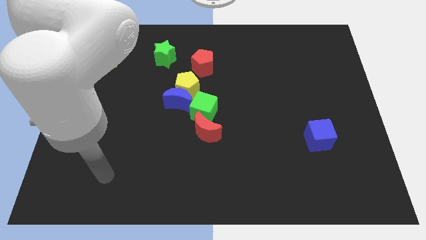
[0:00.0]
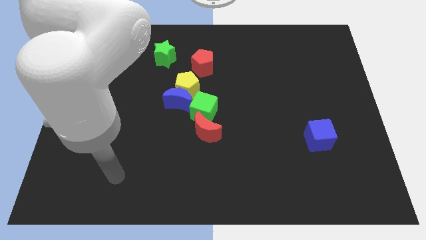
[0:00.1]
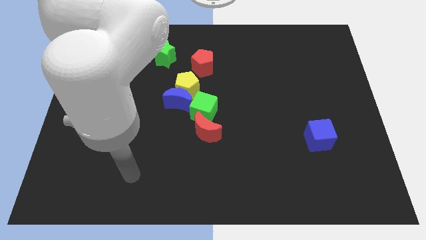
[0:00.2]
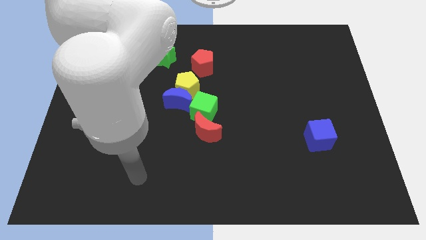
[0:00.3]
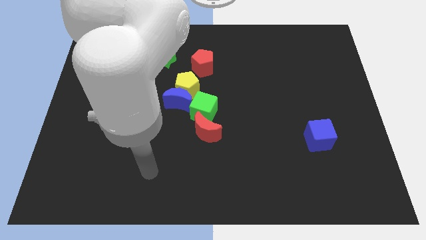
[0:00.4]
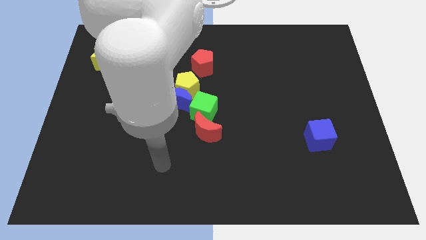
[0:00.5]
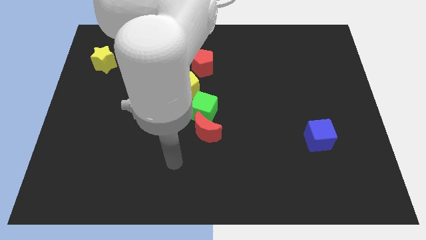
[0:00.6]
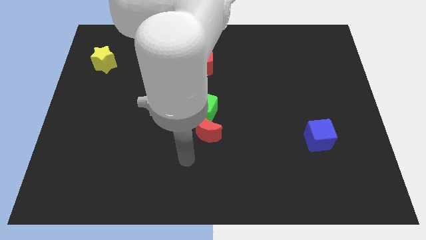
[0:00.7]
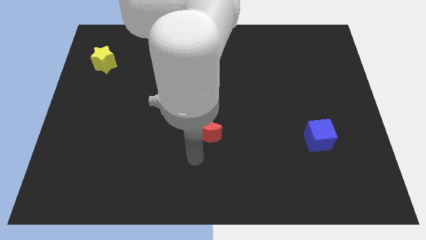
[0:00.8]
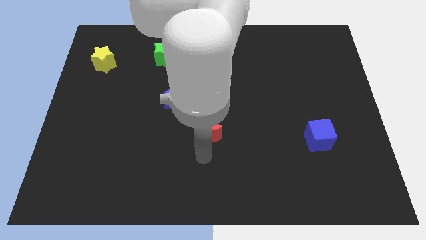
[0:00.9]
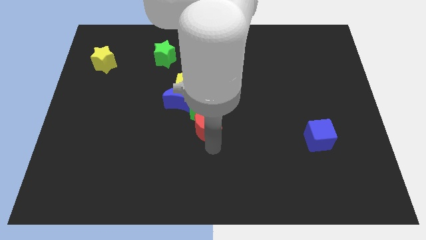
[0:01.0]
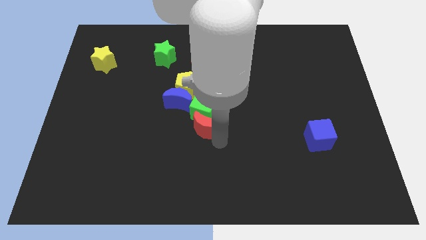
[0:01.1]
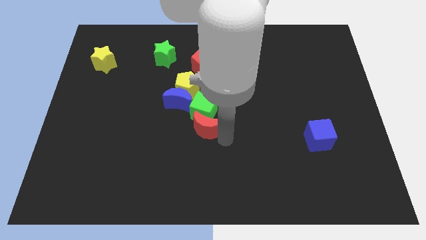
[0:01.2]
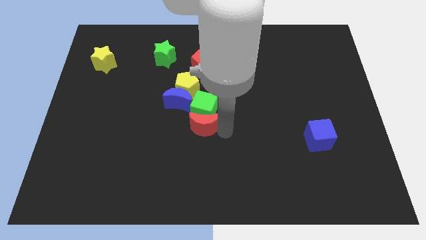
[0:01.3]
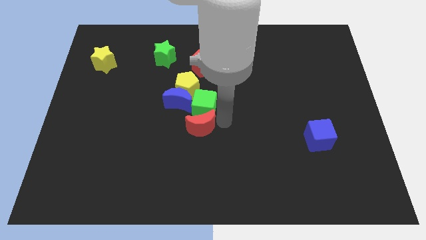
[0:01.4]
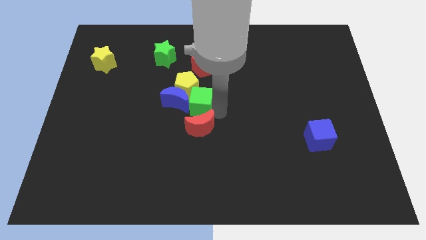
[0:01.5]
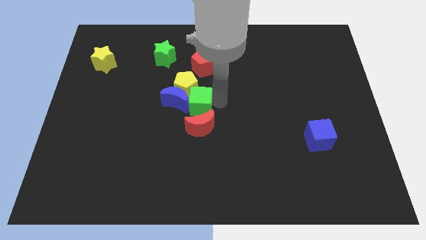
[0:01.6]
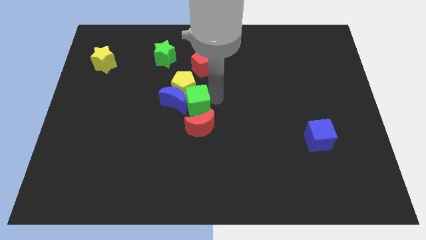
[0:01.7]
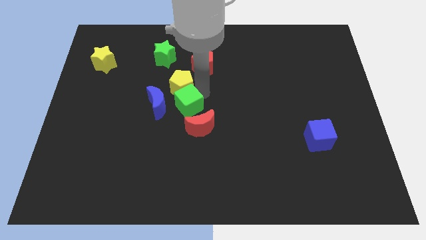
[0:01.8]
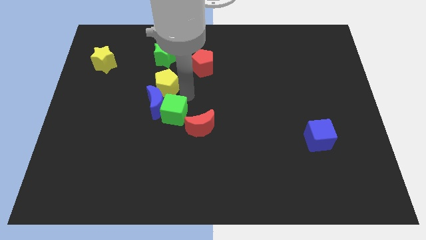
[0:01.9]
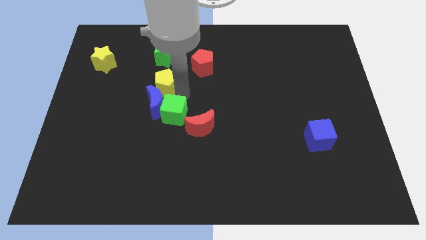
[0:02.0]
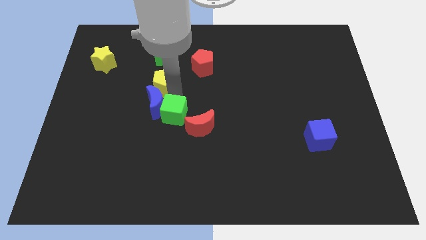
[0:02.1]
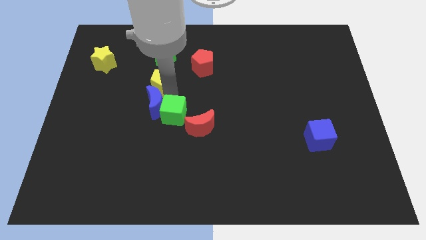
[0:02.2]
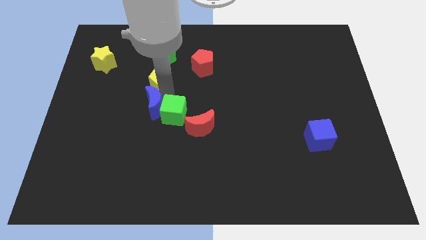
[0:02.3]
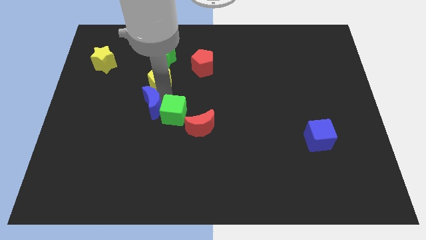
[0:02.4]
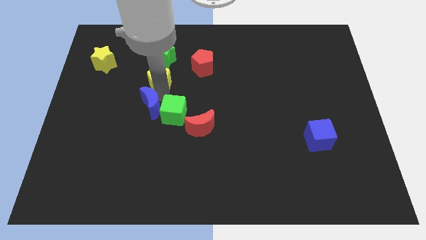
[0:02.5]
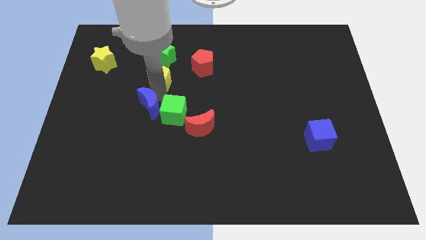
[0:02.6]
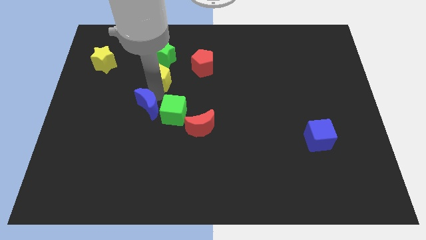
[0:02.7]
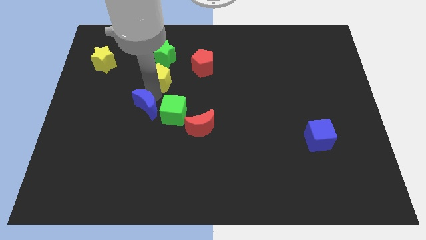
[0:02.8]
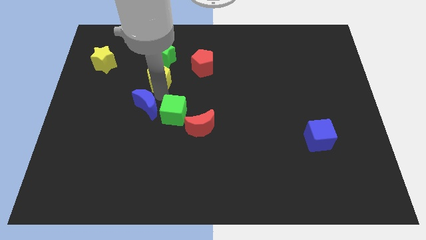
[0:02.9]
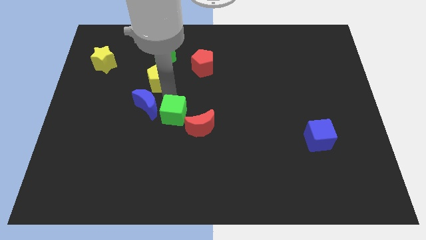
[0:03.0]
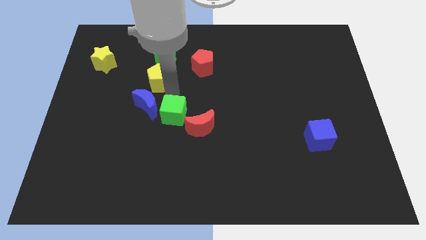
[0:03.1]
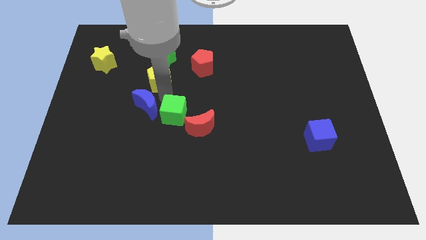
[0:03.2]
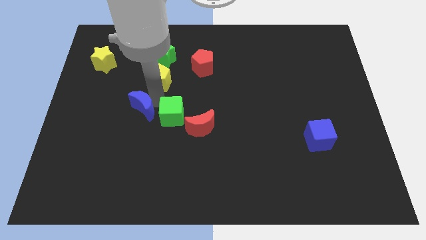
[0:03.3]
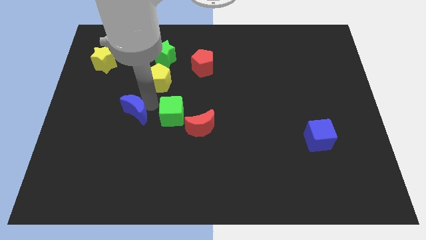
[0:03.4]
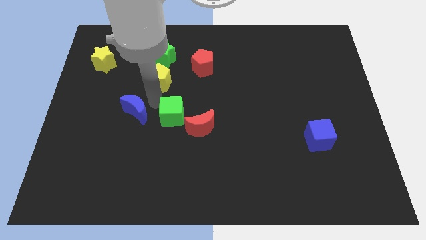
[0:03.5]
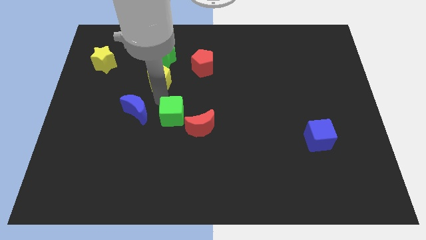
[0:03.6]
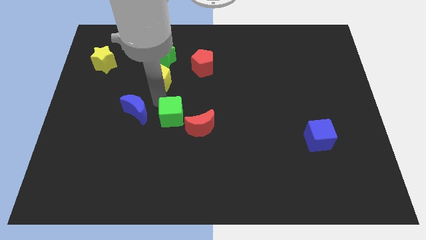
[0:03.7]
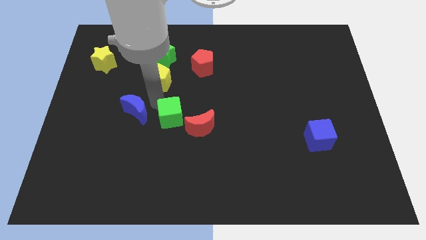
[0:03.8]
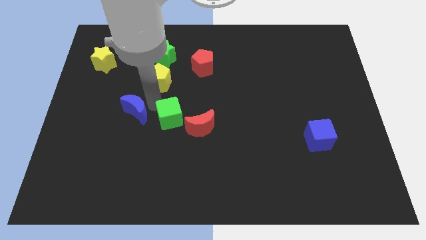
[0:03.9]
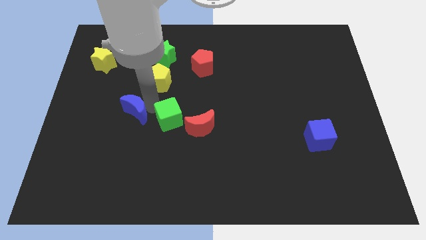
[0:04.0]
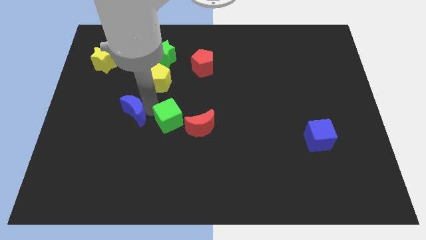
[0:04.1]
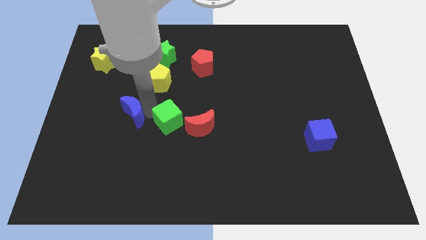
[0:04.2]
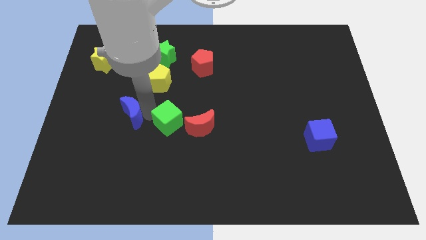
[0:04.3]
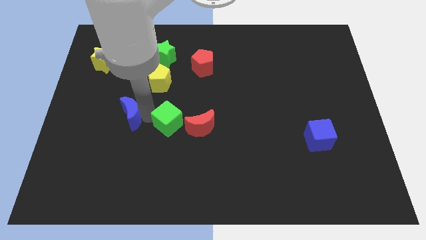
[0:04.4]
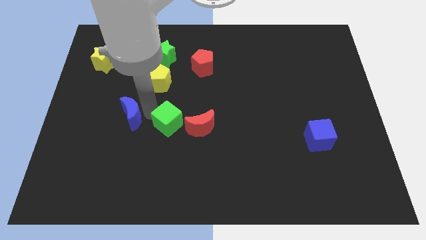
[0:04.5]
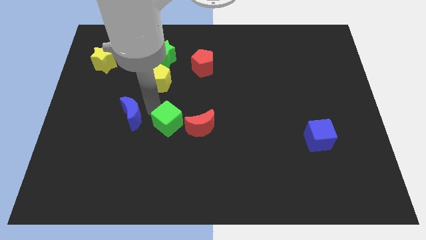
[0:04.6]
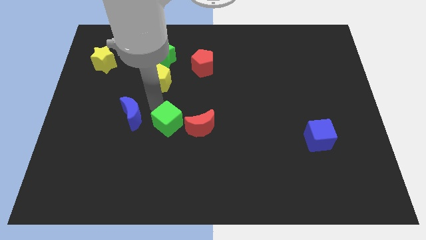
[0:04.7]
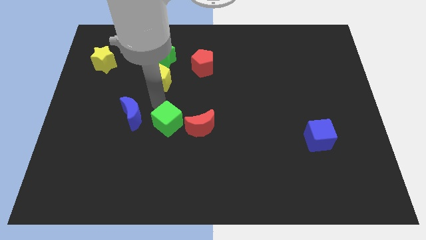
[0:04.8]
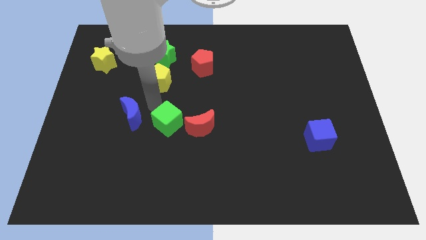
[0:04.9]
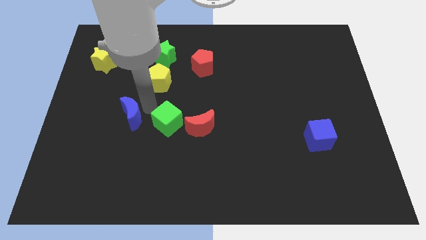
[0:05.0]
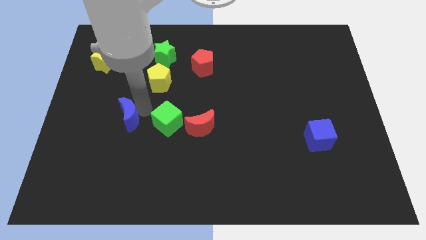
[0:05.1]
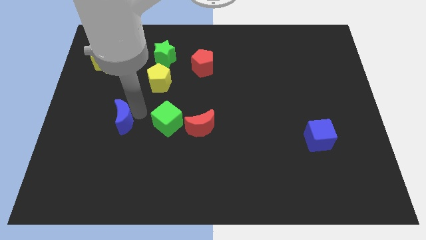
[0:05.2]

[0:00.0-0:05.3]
separate the blue moon from the yellow pentagon and green cube

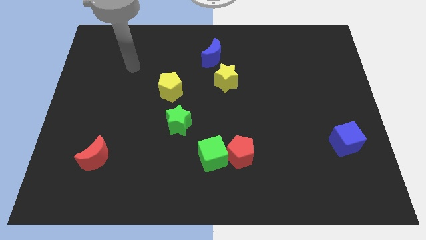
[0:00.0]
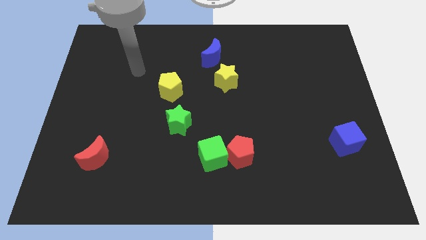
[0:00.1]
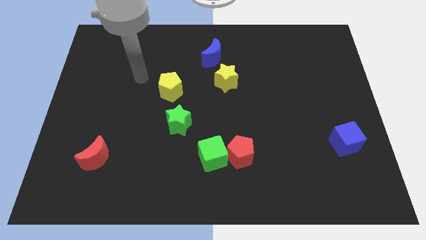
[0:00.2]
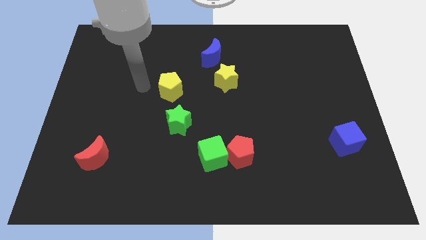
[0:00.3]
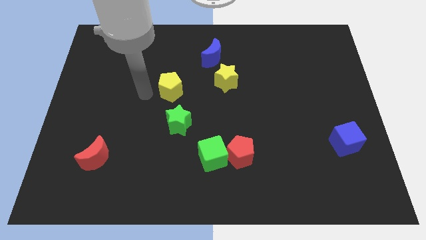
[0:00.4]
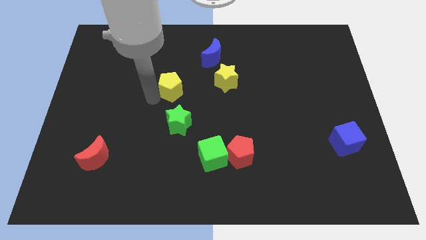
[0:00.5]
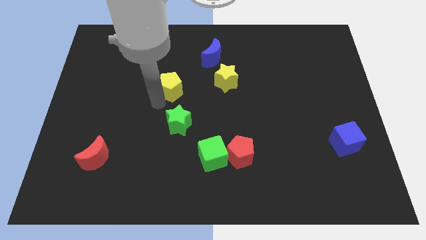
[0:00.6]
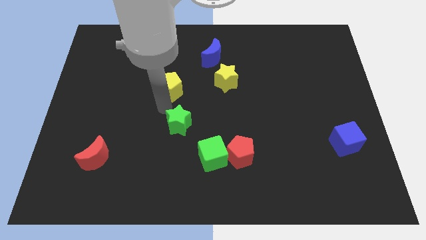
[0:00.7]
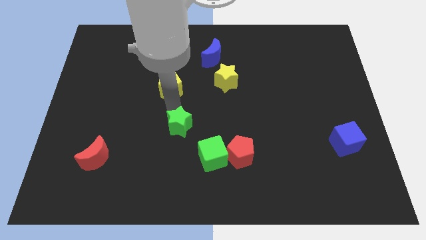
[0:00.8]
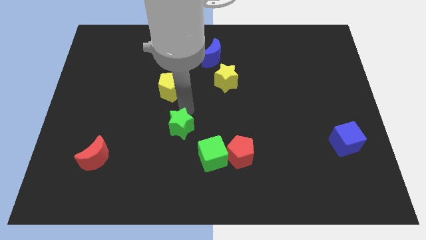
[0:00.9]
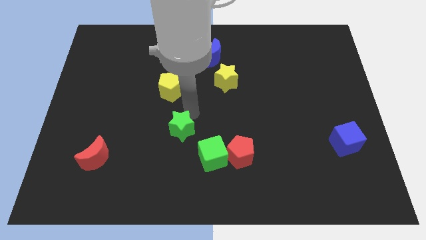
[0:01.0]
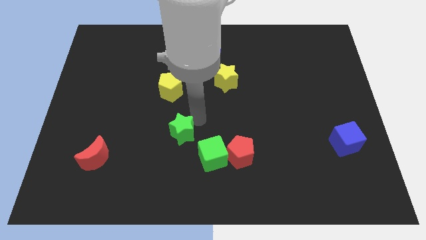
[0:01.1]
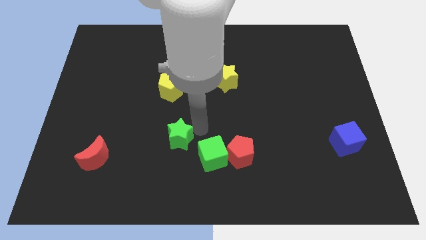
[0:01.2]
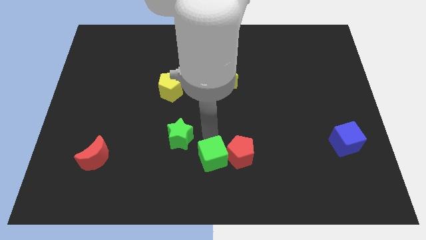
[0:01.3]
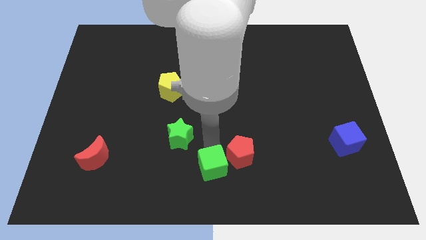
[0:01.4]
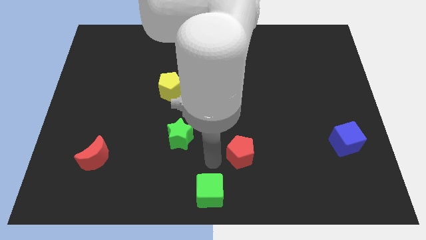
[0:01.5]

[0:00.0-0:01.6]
move the red pentagon away from the green cube

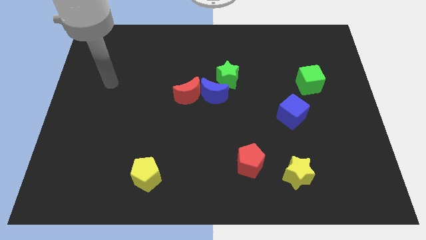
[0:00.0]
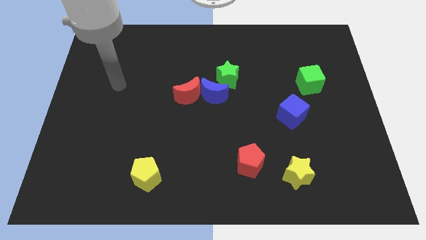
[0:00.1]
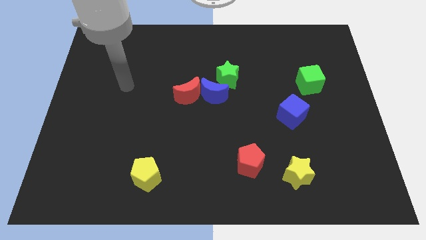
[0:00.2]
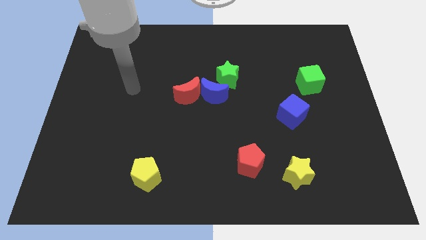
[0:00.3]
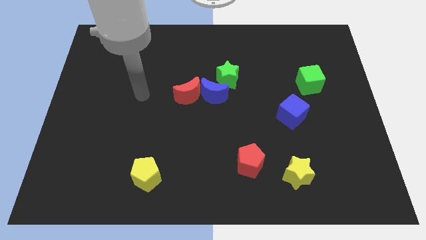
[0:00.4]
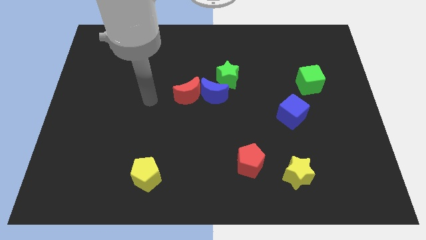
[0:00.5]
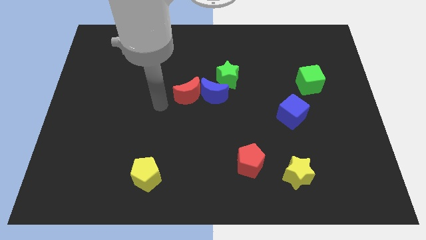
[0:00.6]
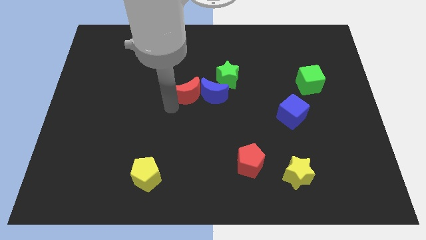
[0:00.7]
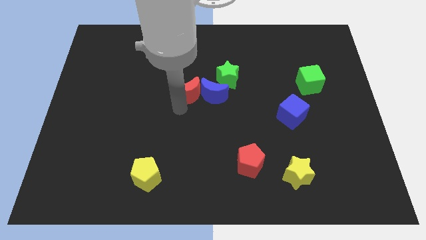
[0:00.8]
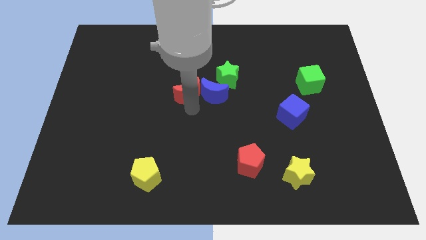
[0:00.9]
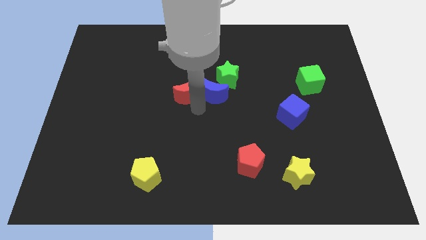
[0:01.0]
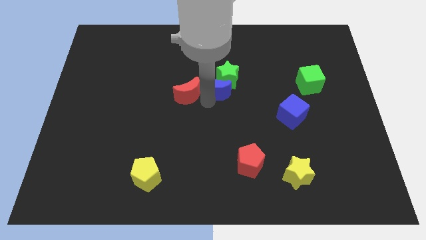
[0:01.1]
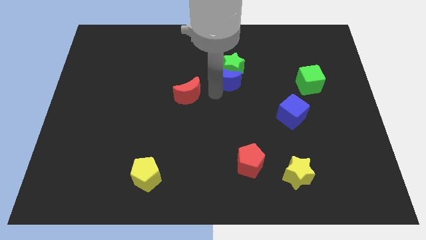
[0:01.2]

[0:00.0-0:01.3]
separate the red moon from the blue moon

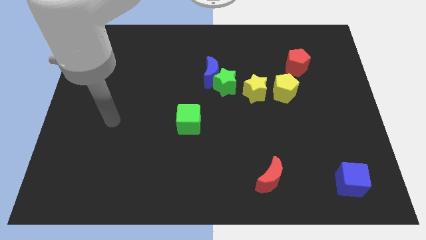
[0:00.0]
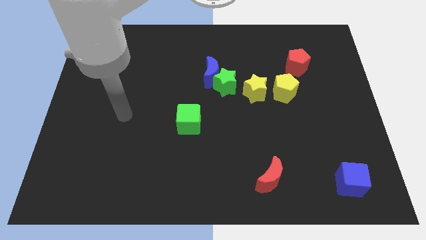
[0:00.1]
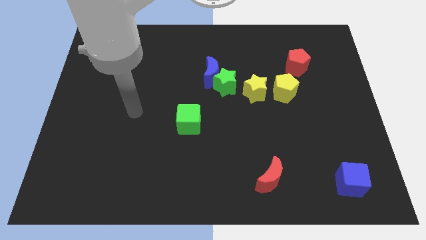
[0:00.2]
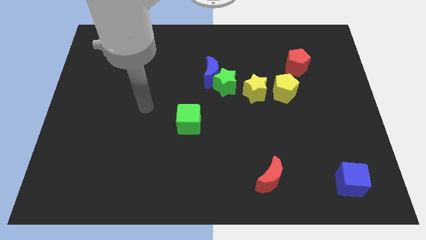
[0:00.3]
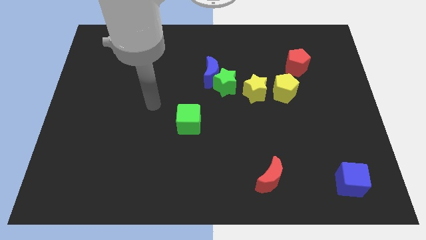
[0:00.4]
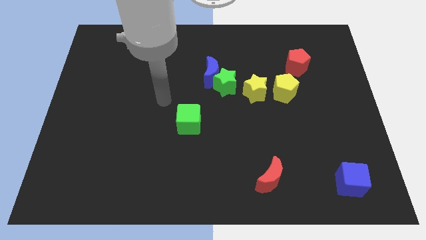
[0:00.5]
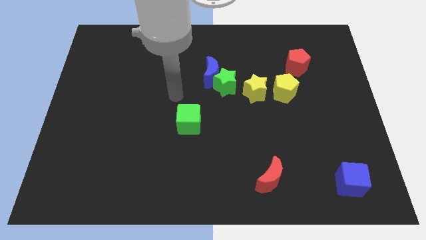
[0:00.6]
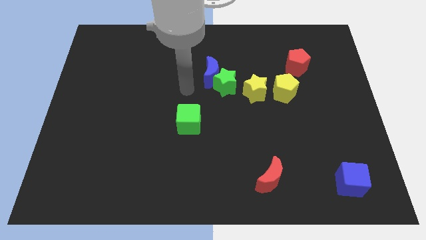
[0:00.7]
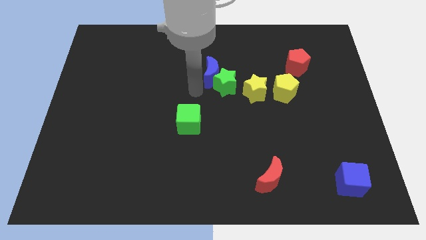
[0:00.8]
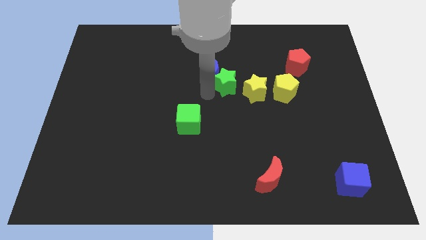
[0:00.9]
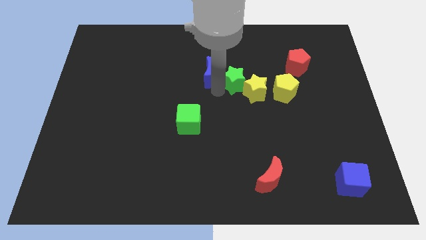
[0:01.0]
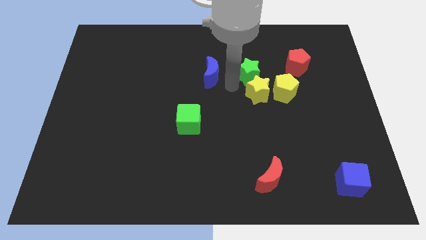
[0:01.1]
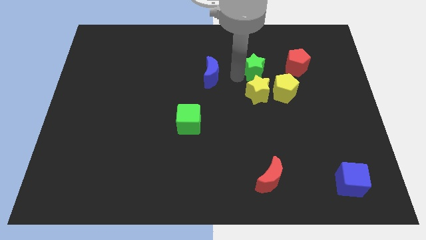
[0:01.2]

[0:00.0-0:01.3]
pull the blue moon apart from the green star
